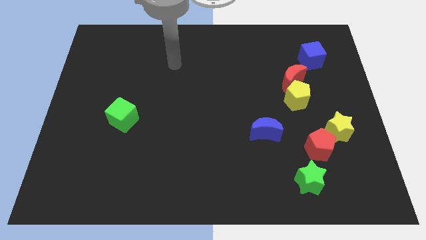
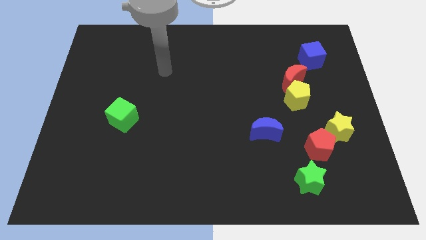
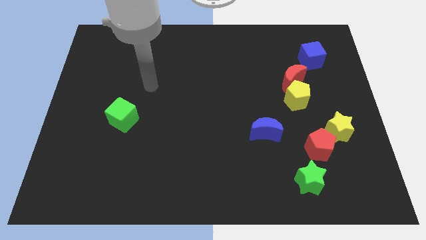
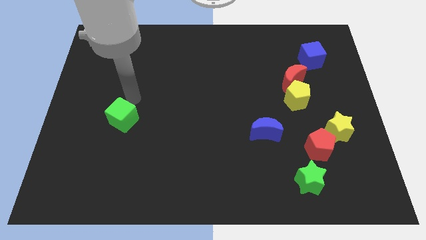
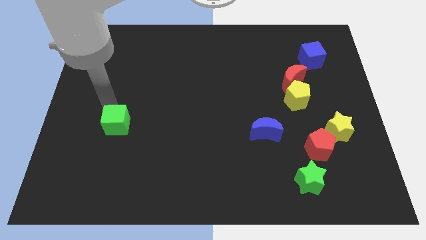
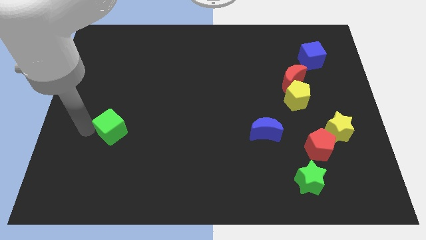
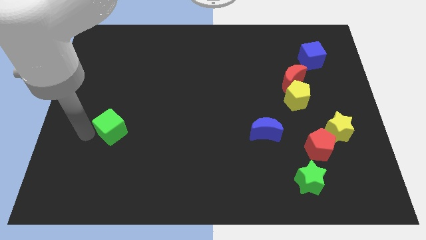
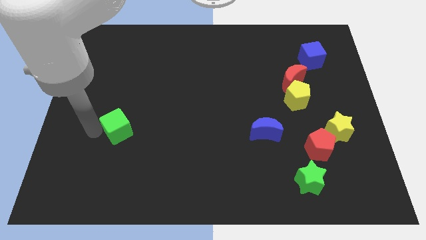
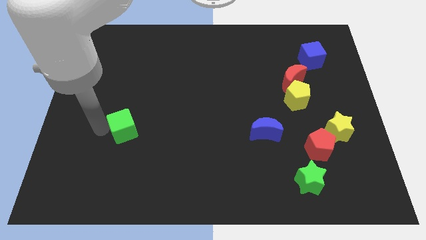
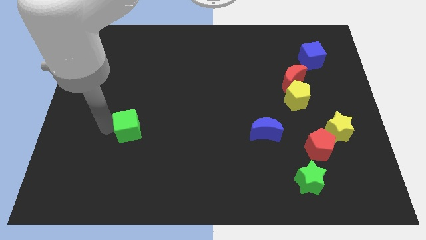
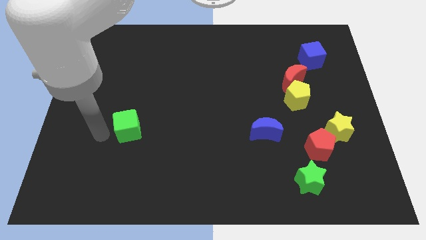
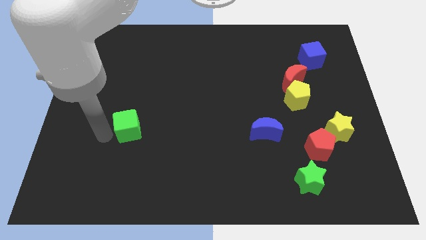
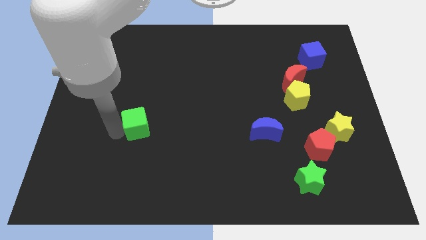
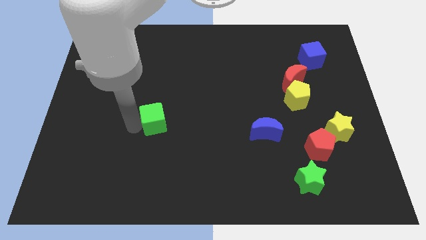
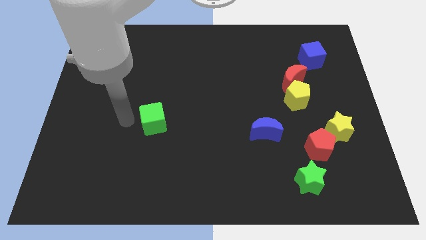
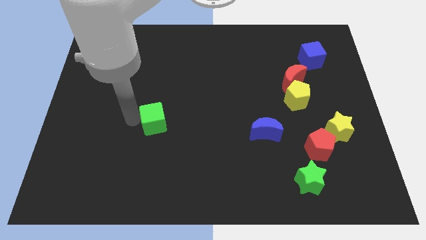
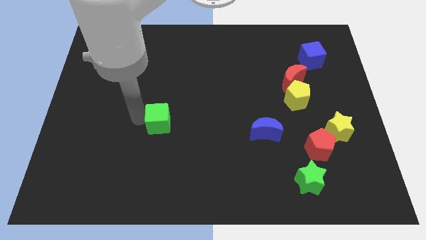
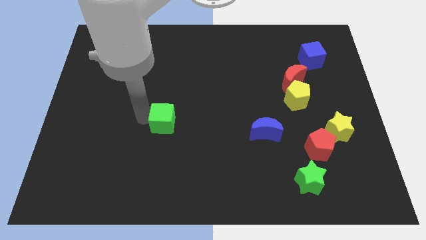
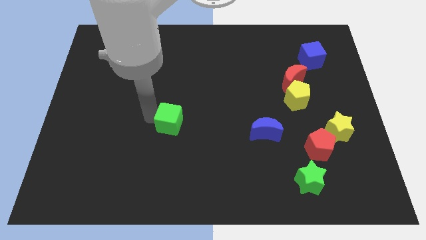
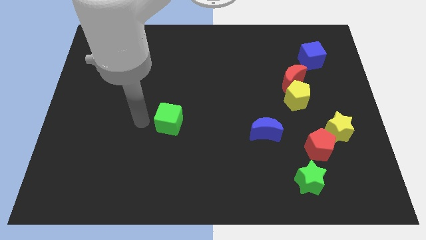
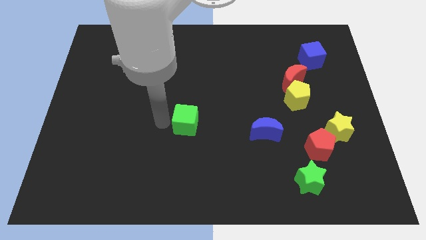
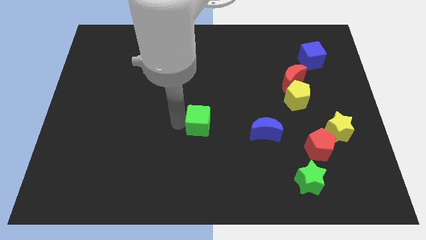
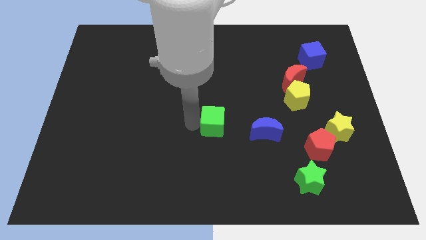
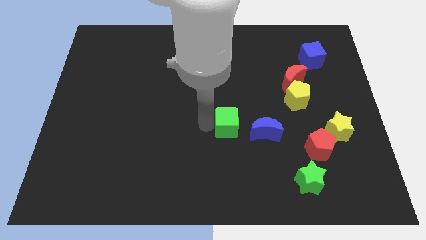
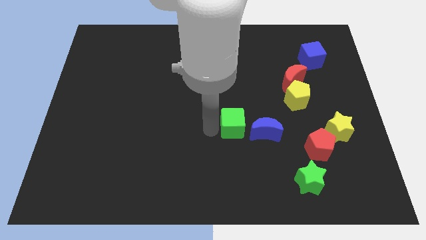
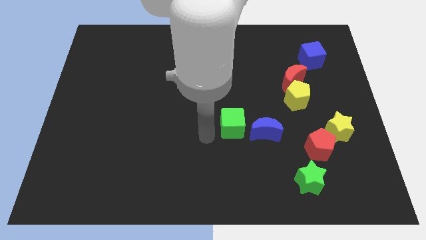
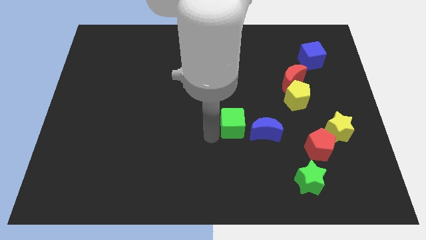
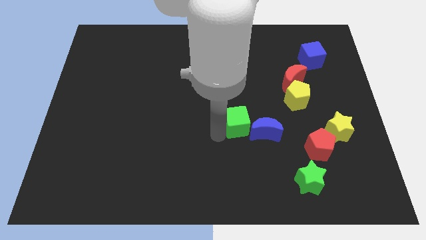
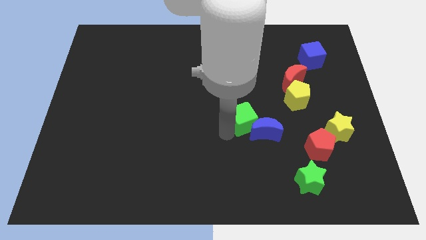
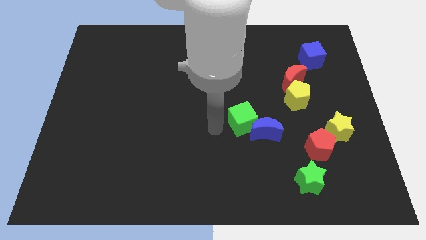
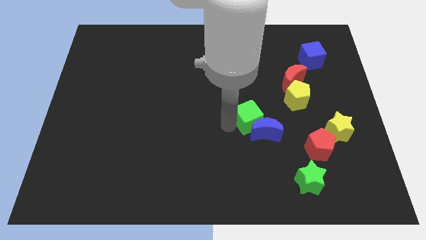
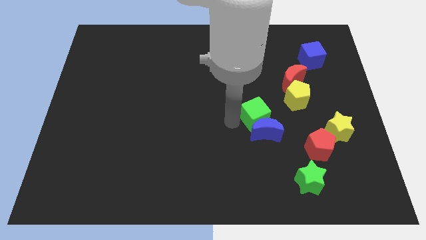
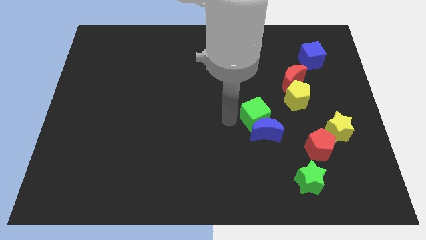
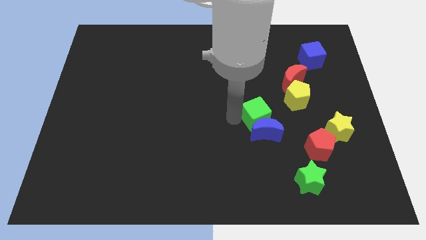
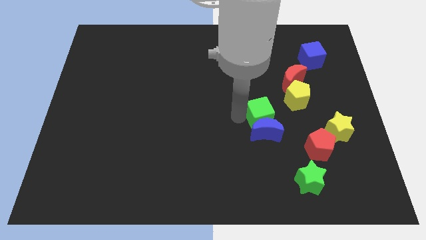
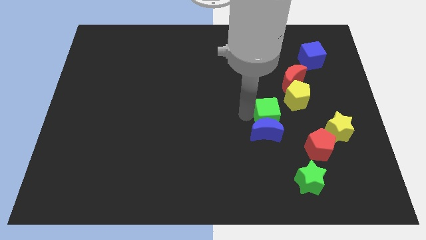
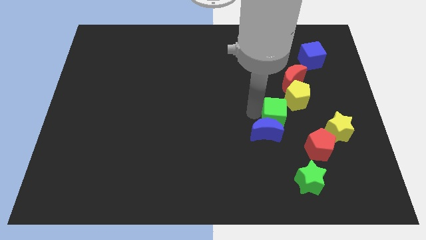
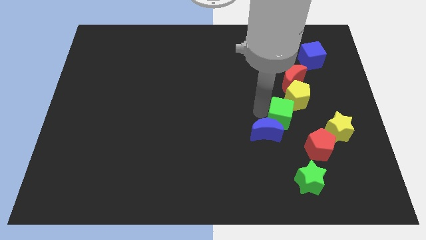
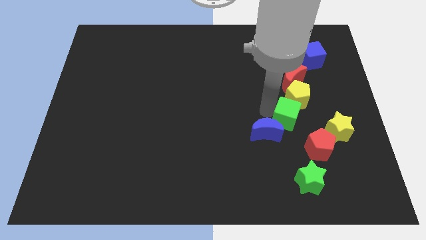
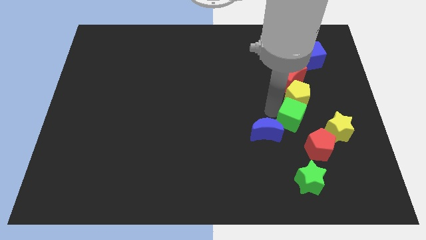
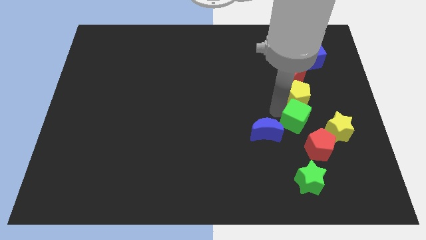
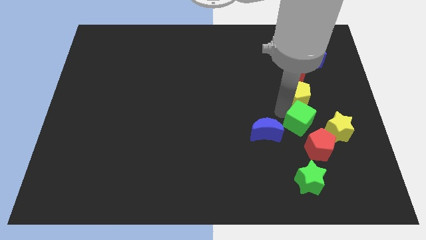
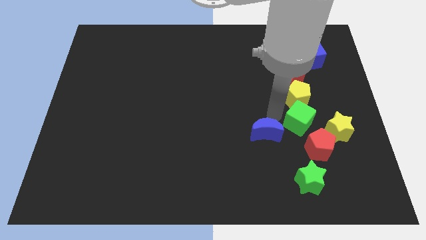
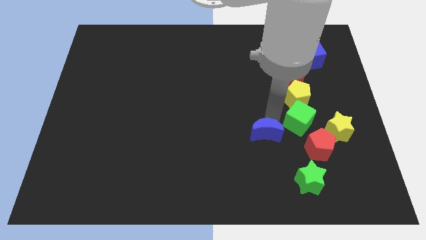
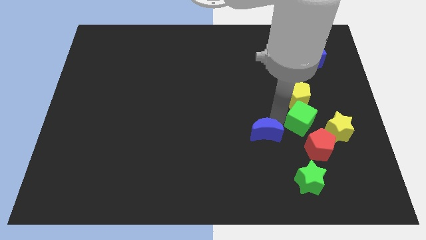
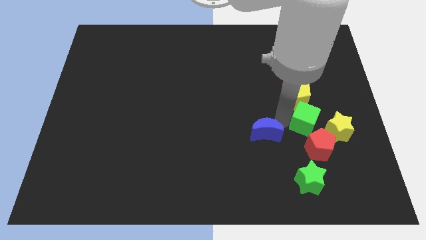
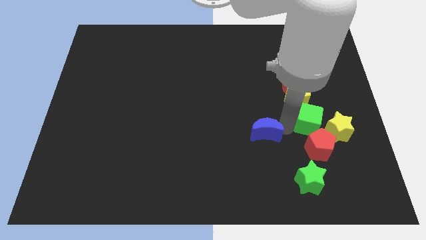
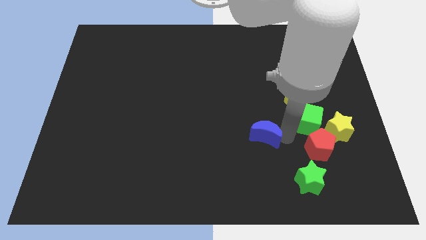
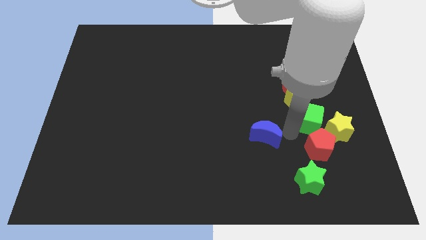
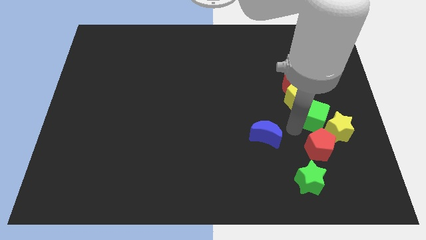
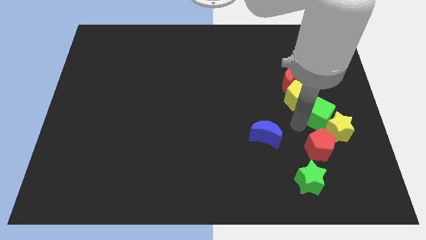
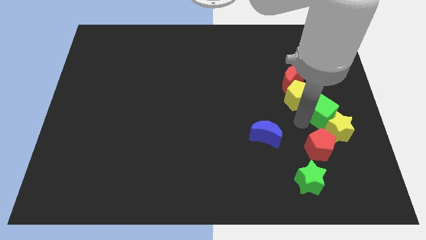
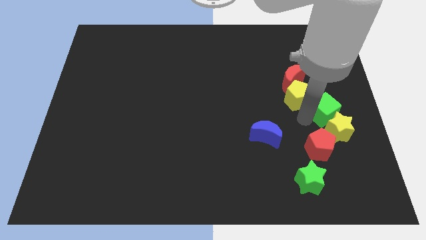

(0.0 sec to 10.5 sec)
move the green cube to the right side of the board
